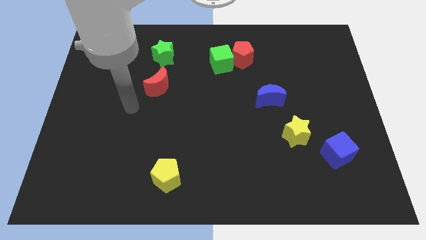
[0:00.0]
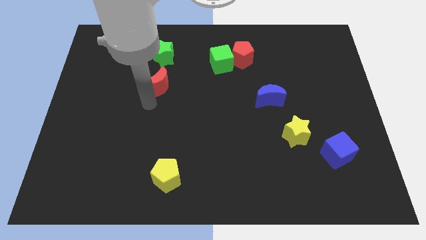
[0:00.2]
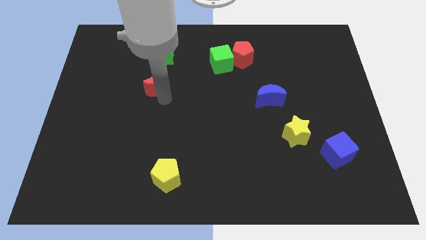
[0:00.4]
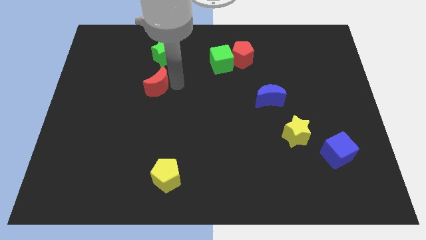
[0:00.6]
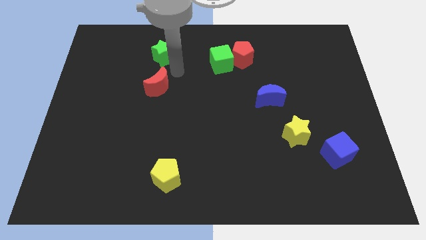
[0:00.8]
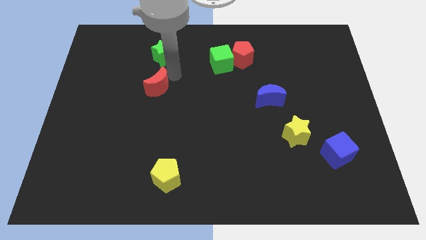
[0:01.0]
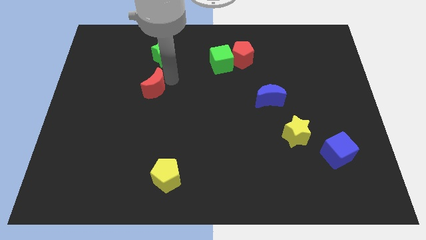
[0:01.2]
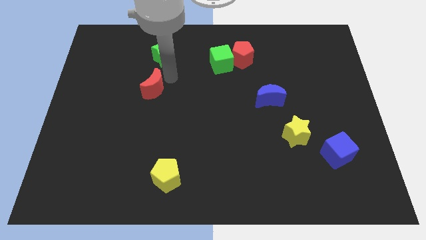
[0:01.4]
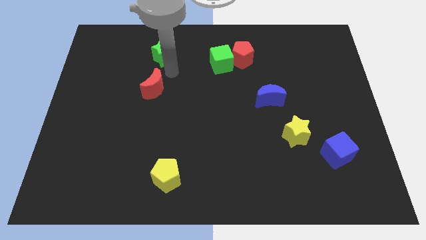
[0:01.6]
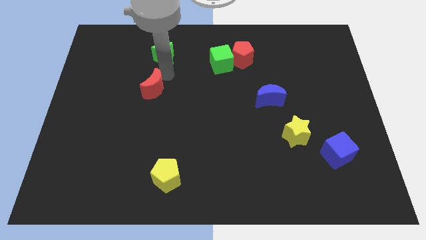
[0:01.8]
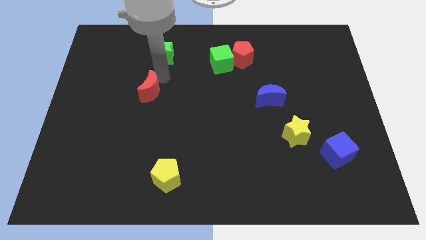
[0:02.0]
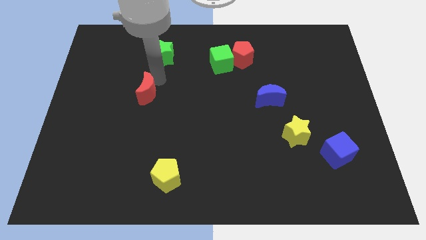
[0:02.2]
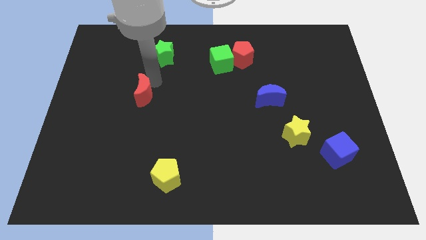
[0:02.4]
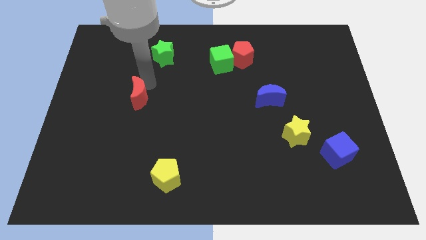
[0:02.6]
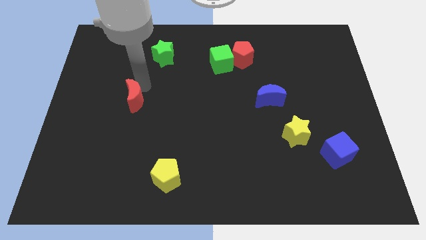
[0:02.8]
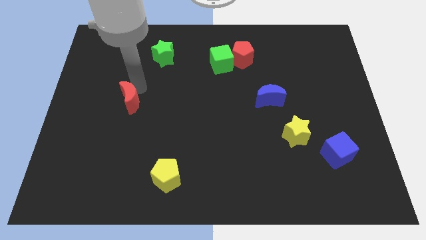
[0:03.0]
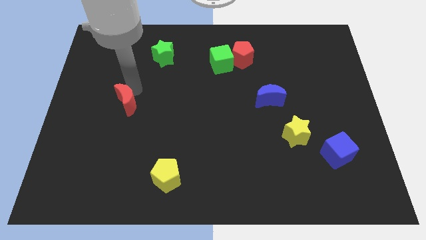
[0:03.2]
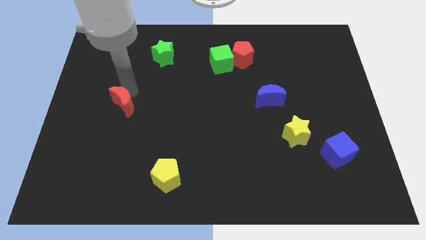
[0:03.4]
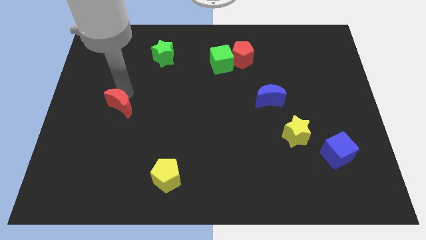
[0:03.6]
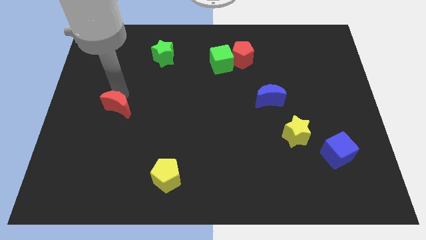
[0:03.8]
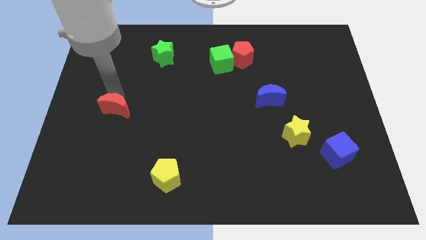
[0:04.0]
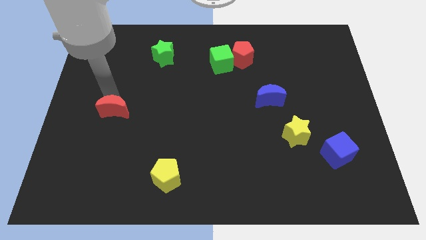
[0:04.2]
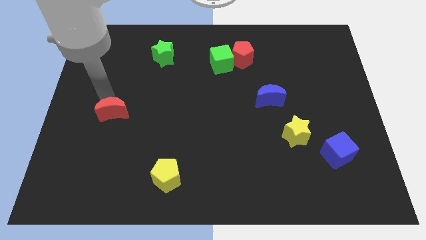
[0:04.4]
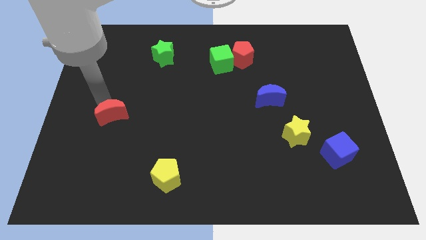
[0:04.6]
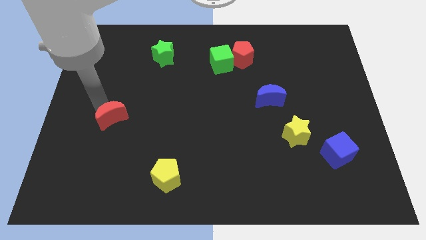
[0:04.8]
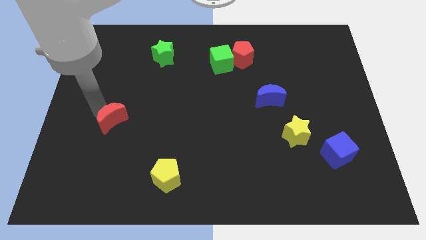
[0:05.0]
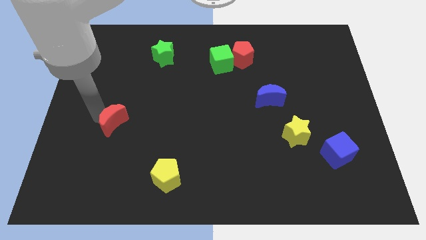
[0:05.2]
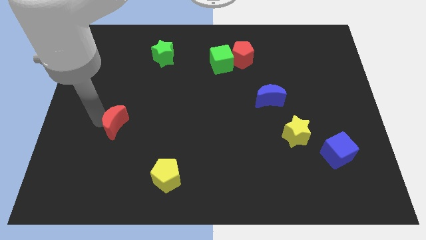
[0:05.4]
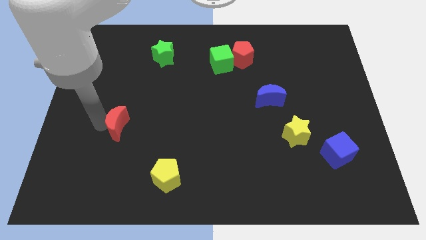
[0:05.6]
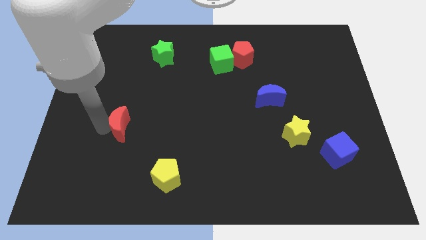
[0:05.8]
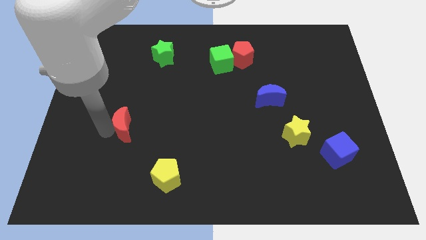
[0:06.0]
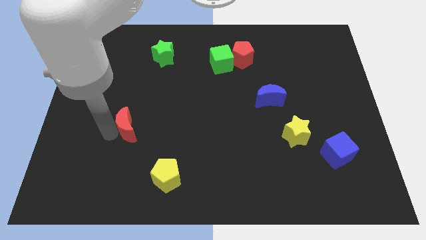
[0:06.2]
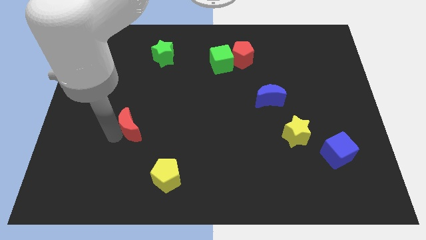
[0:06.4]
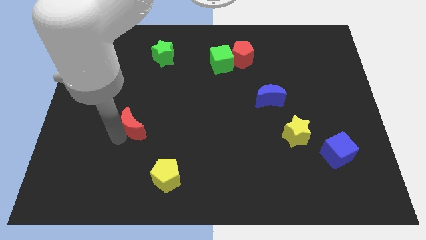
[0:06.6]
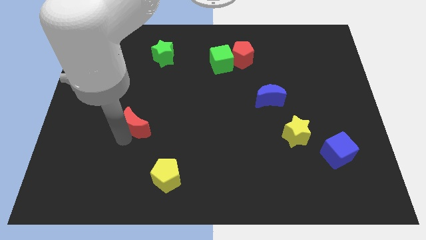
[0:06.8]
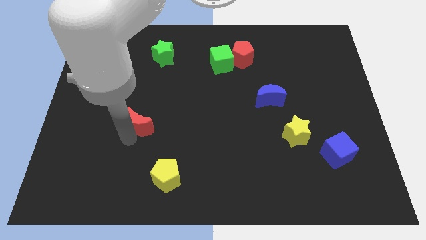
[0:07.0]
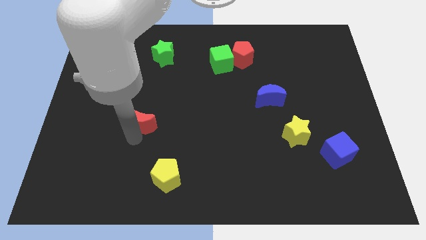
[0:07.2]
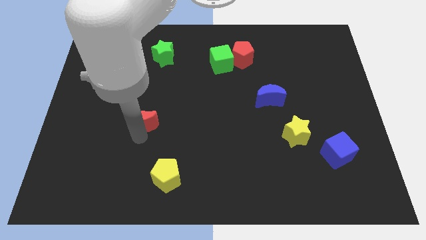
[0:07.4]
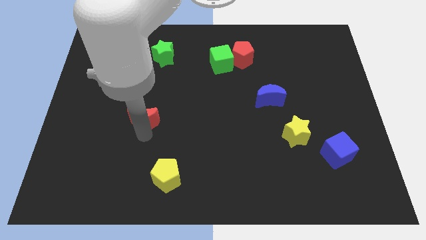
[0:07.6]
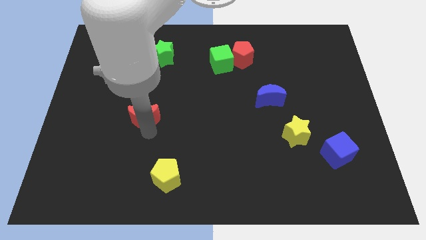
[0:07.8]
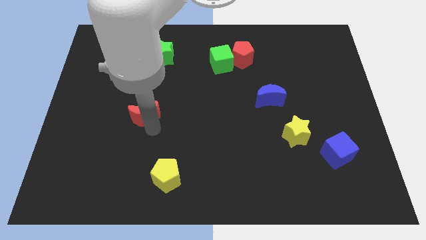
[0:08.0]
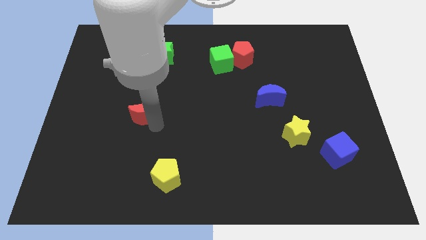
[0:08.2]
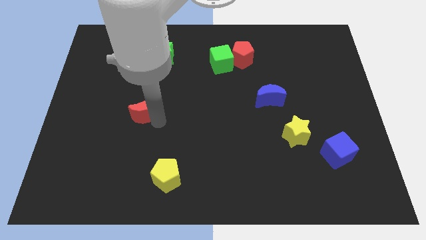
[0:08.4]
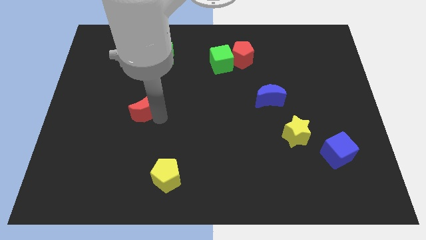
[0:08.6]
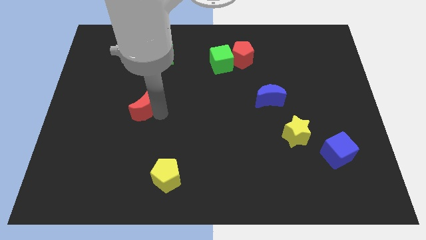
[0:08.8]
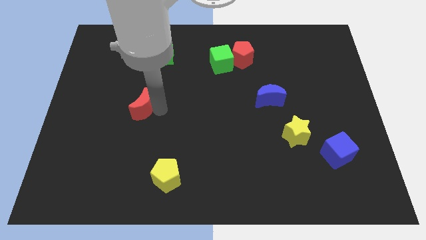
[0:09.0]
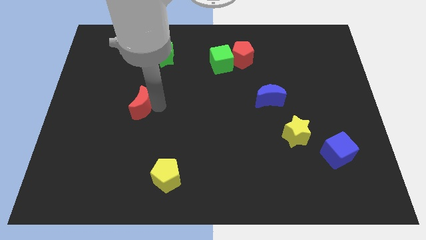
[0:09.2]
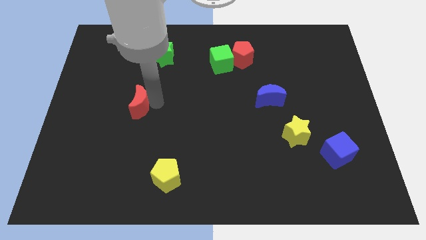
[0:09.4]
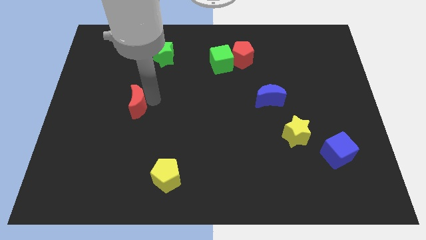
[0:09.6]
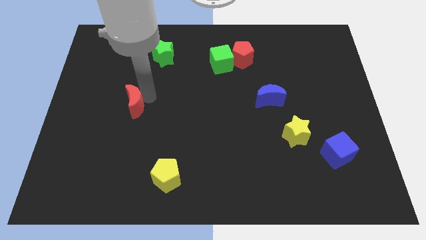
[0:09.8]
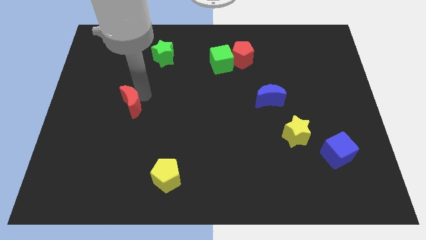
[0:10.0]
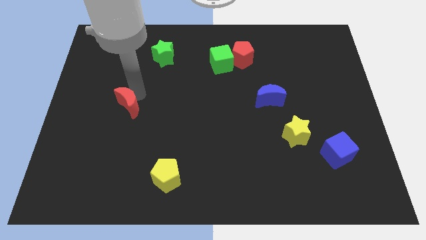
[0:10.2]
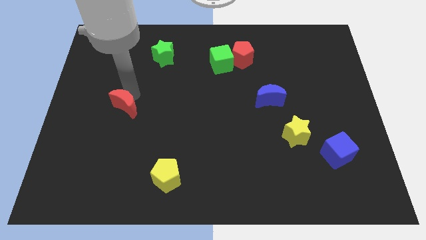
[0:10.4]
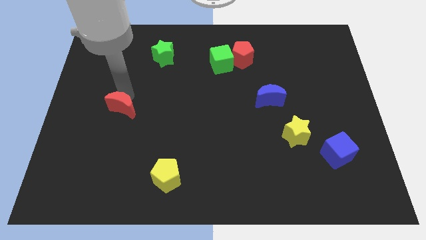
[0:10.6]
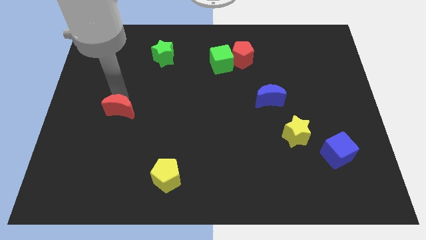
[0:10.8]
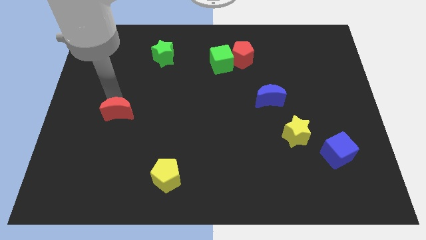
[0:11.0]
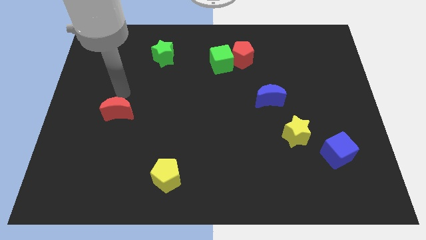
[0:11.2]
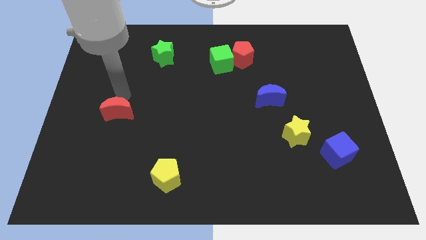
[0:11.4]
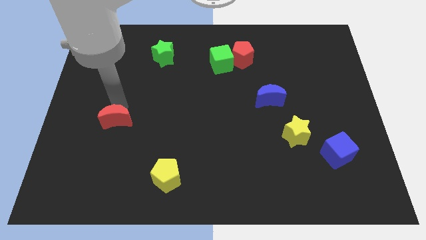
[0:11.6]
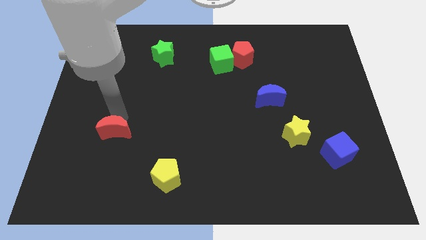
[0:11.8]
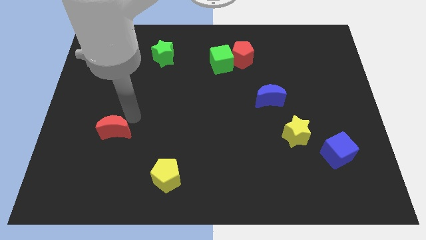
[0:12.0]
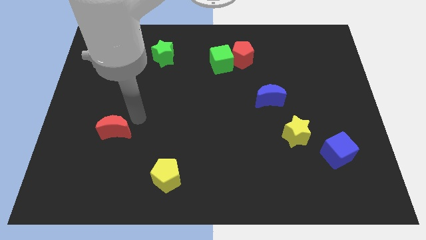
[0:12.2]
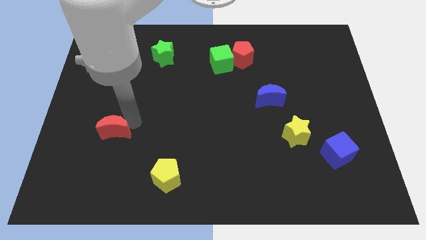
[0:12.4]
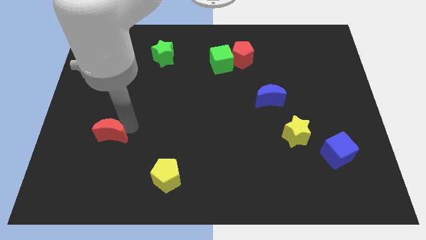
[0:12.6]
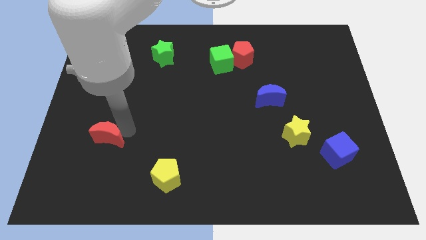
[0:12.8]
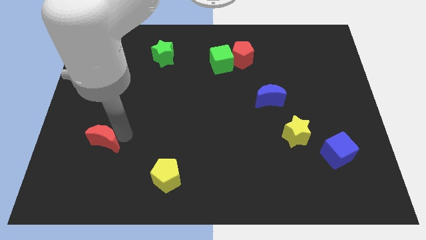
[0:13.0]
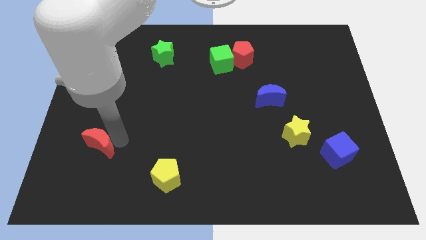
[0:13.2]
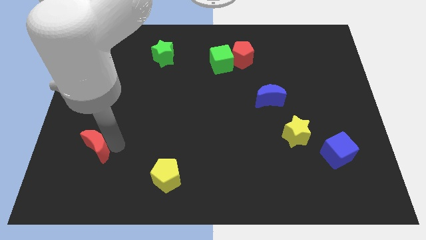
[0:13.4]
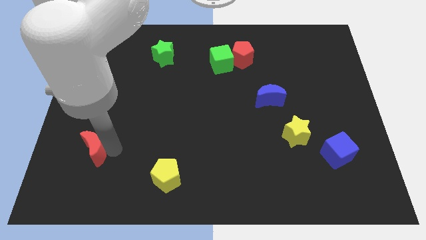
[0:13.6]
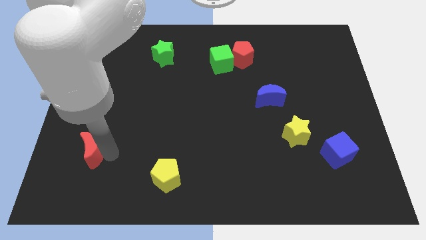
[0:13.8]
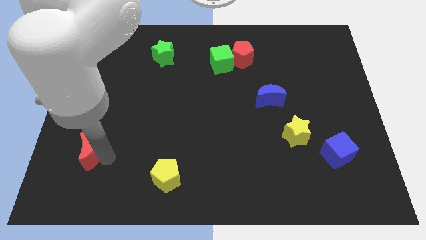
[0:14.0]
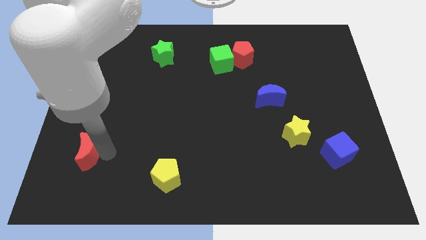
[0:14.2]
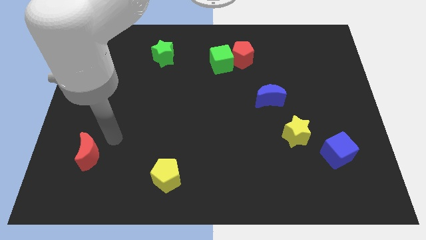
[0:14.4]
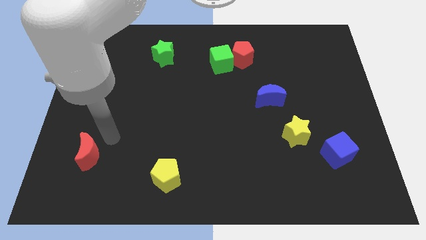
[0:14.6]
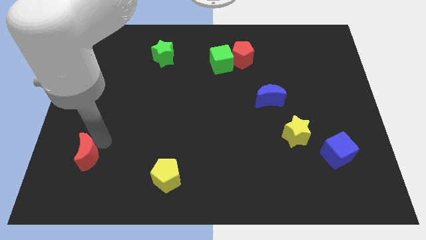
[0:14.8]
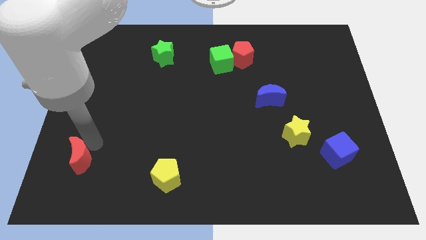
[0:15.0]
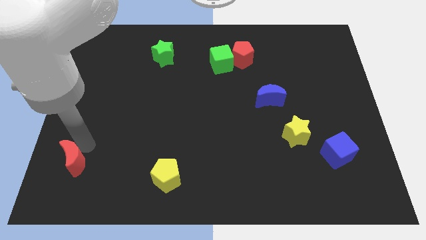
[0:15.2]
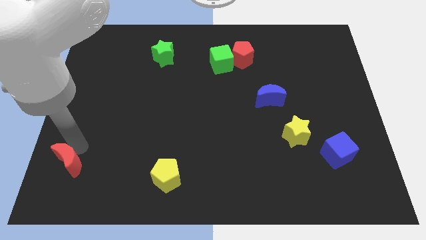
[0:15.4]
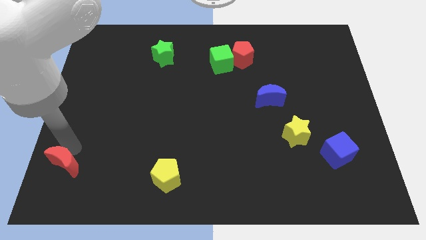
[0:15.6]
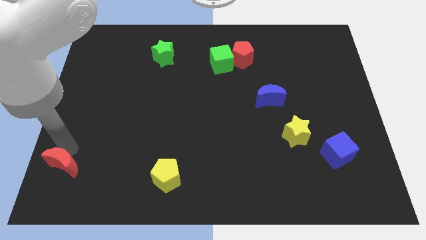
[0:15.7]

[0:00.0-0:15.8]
slide the red moon to the bottom left of the board
